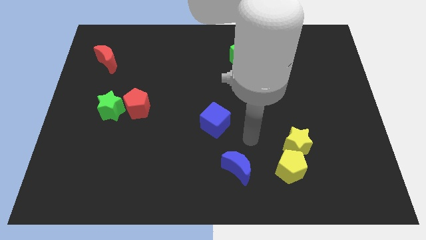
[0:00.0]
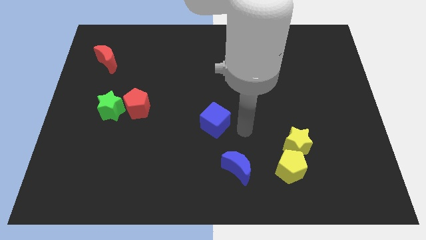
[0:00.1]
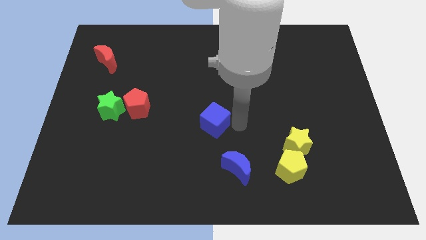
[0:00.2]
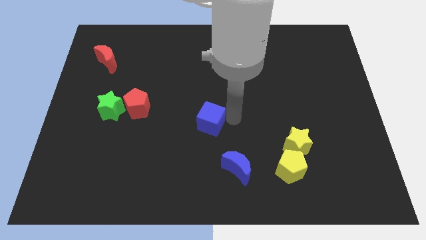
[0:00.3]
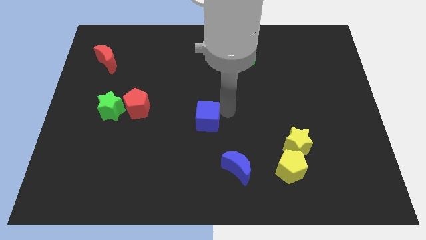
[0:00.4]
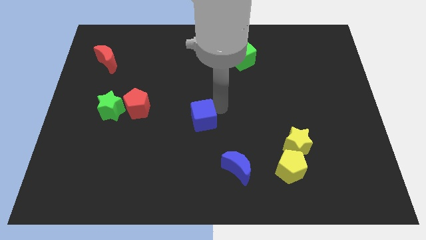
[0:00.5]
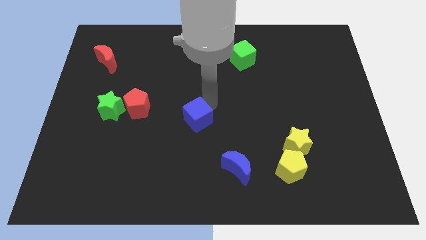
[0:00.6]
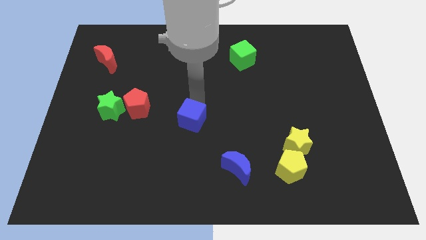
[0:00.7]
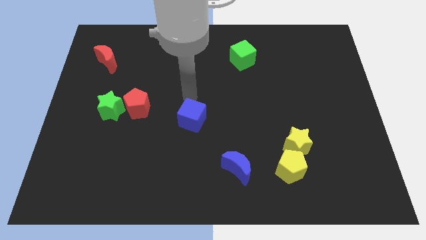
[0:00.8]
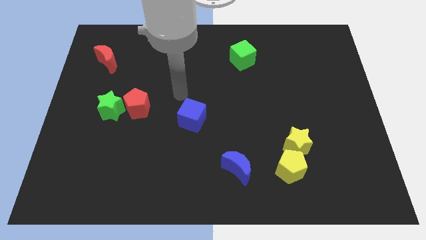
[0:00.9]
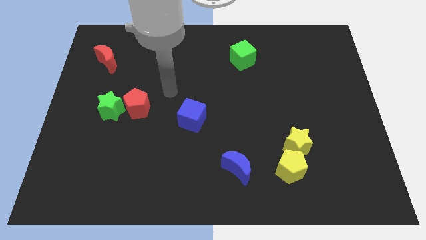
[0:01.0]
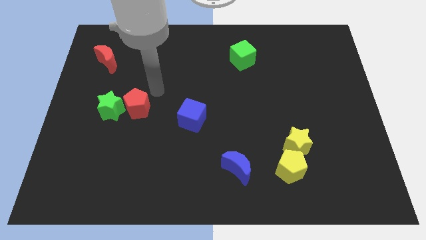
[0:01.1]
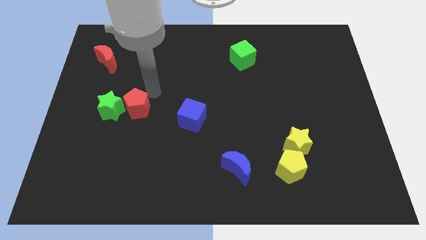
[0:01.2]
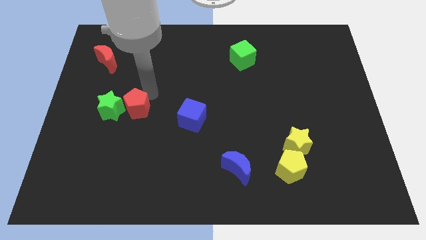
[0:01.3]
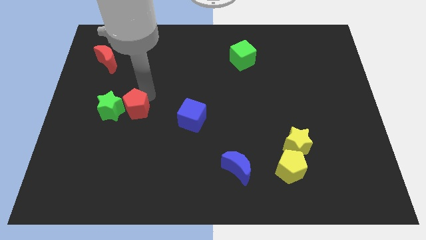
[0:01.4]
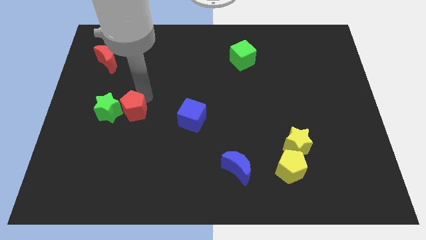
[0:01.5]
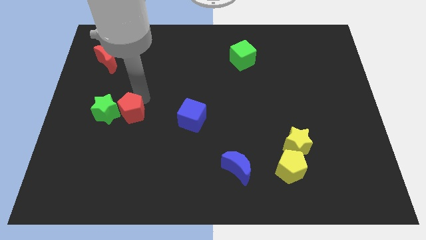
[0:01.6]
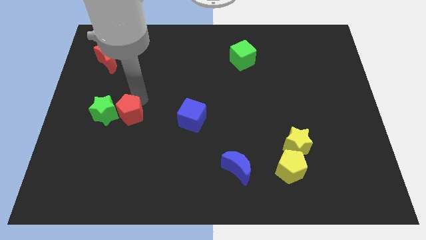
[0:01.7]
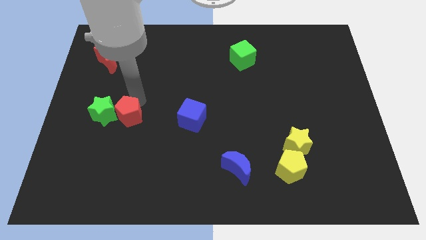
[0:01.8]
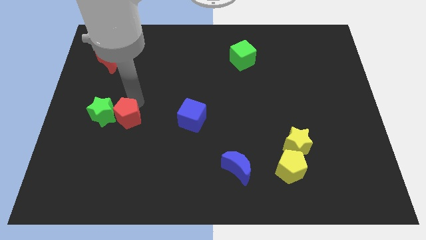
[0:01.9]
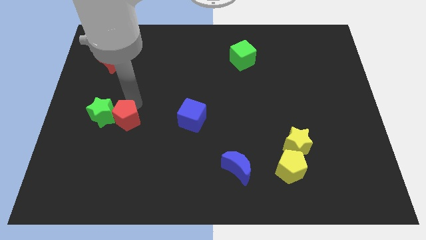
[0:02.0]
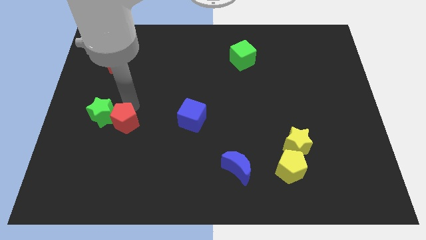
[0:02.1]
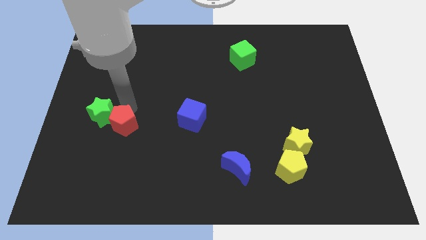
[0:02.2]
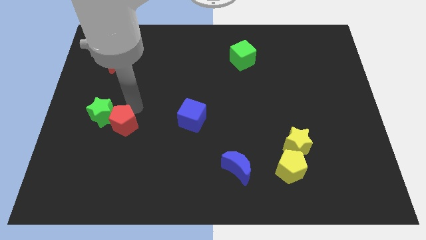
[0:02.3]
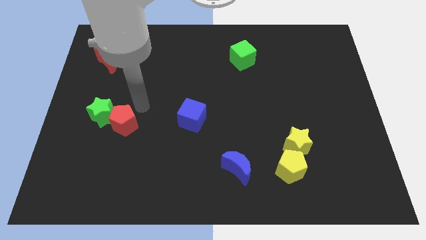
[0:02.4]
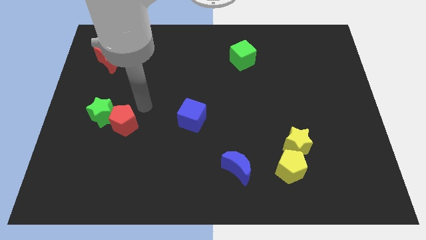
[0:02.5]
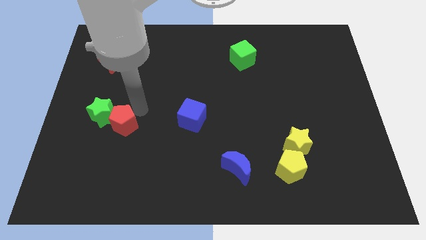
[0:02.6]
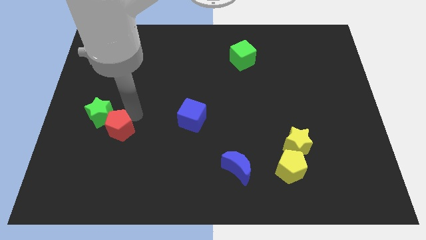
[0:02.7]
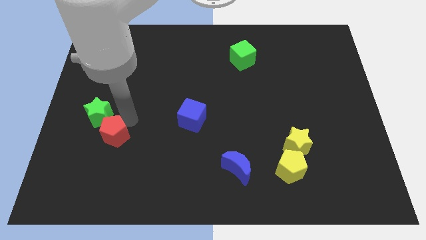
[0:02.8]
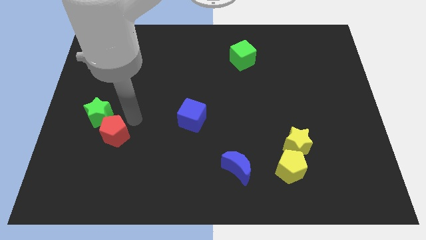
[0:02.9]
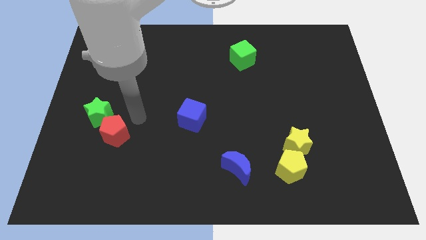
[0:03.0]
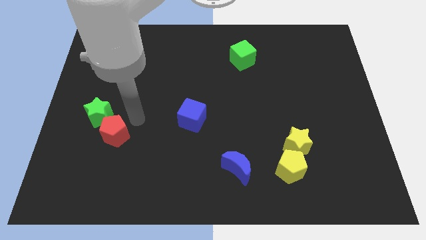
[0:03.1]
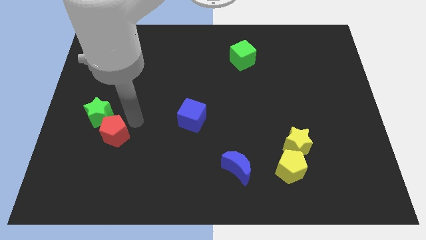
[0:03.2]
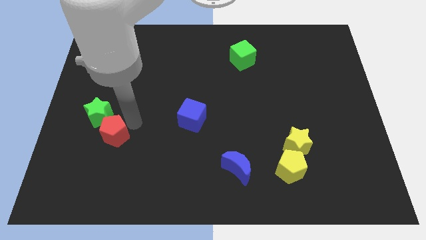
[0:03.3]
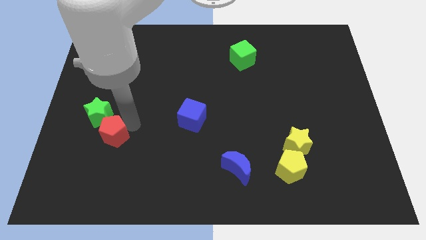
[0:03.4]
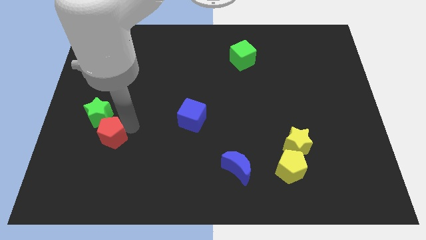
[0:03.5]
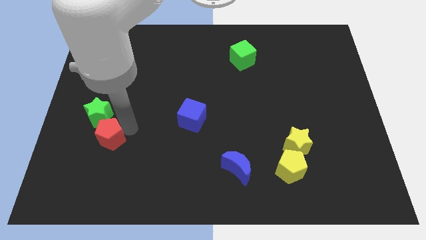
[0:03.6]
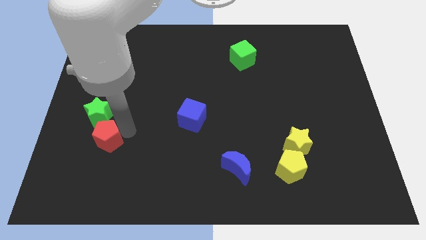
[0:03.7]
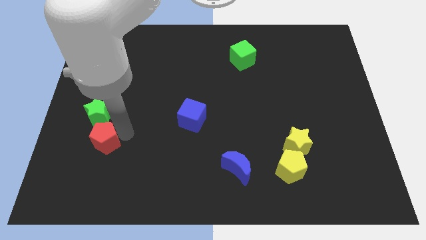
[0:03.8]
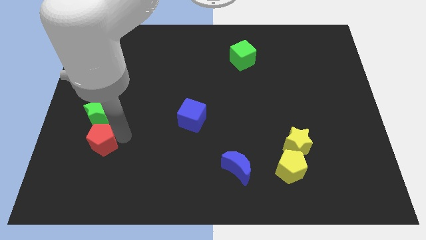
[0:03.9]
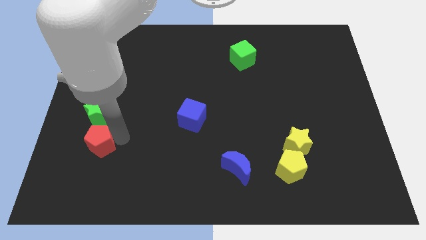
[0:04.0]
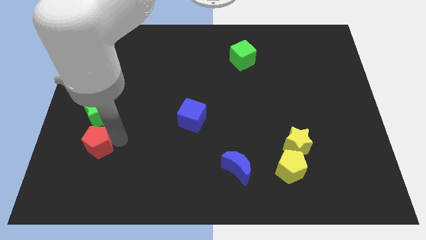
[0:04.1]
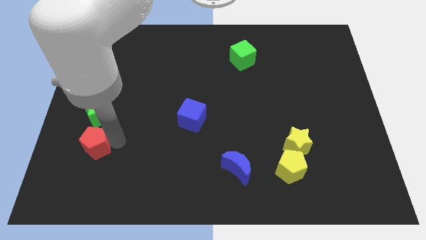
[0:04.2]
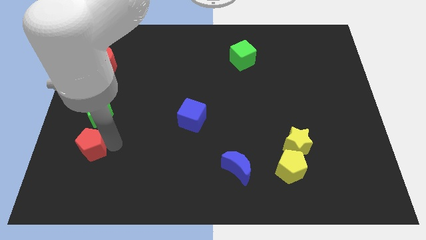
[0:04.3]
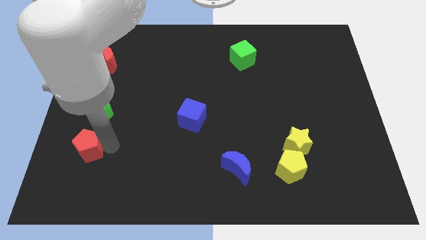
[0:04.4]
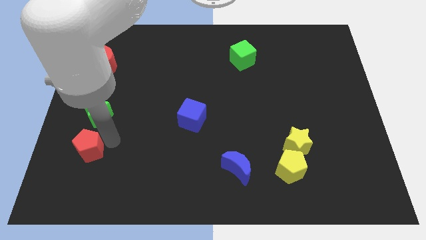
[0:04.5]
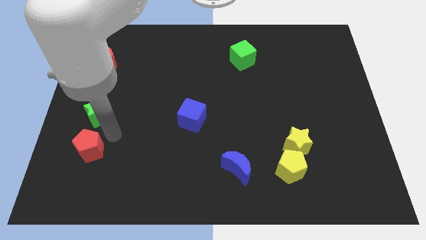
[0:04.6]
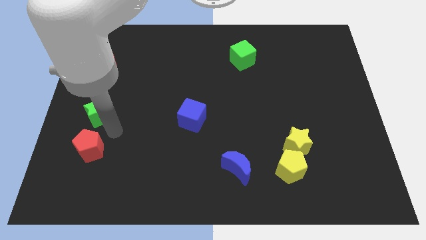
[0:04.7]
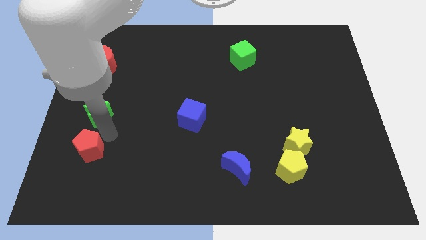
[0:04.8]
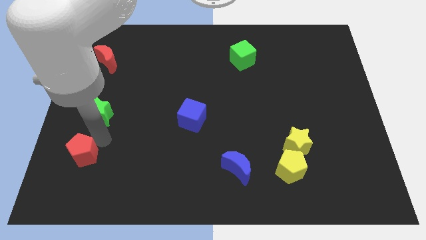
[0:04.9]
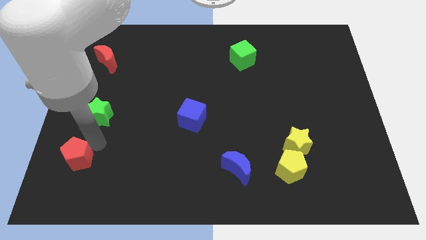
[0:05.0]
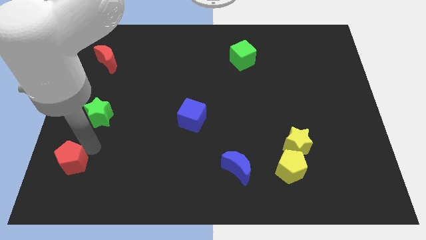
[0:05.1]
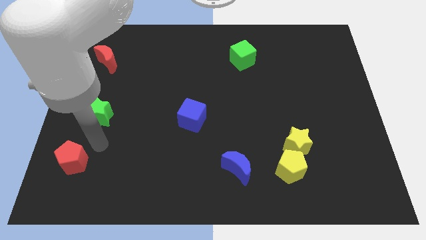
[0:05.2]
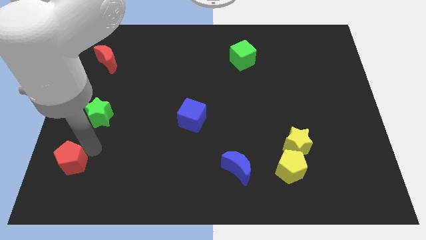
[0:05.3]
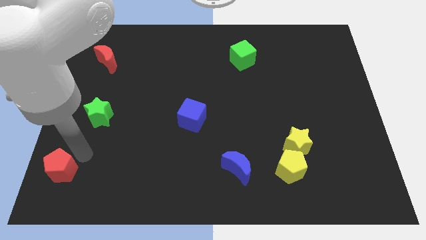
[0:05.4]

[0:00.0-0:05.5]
push the red pentagon to the lower left corner

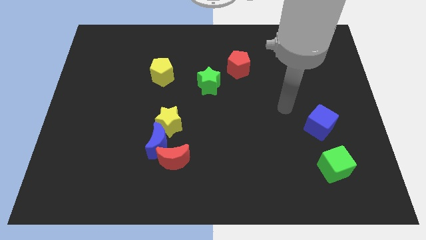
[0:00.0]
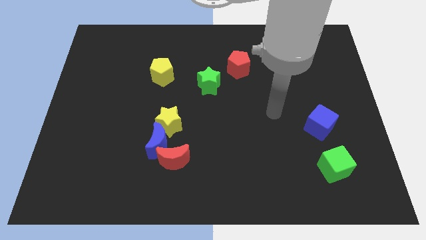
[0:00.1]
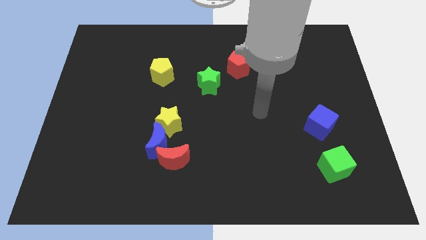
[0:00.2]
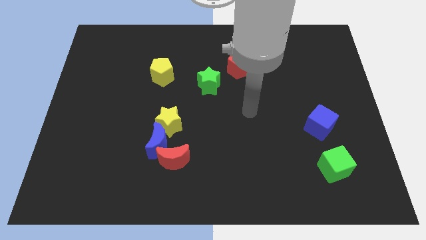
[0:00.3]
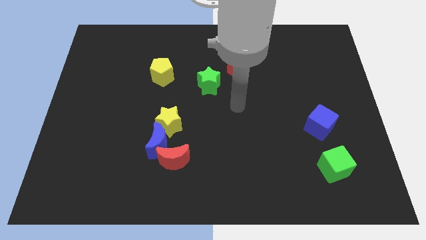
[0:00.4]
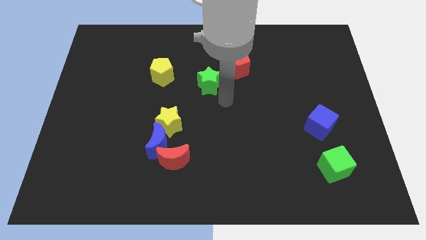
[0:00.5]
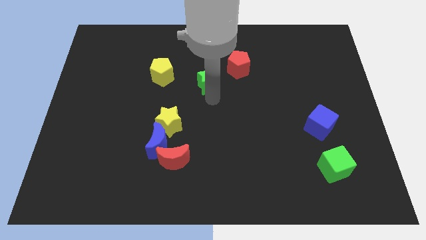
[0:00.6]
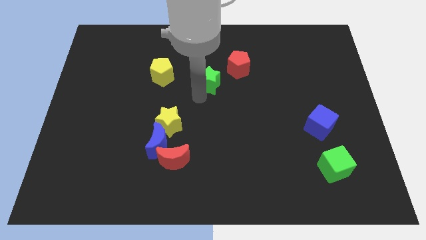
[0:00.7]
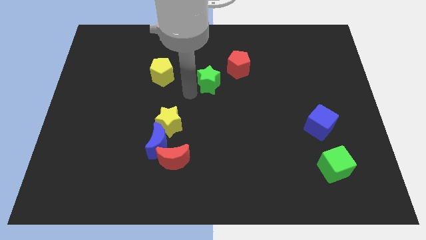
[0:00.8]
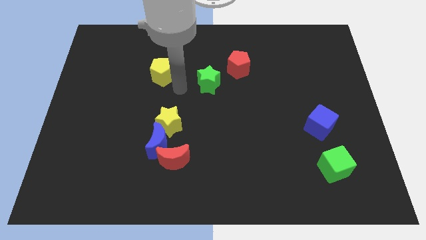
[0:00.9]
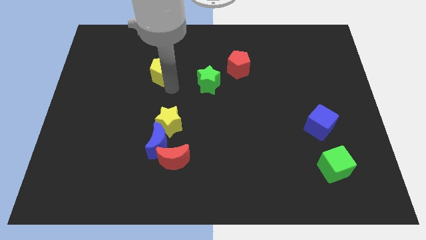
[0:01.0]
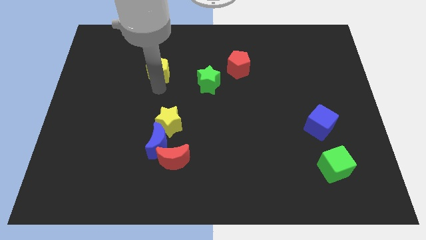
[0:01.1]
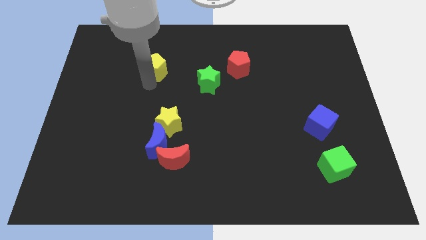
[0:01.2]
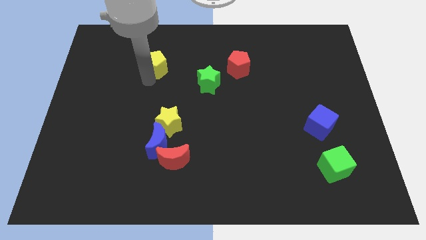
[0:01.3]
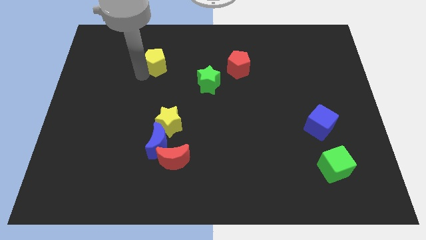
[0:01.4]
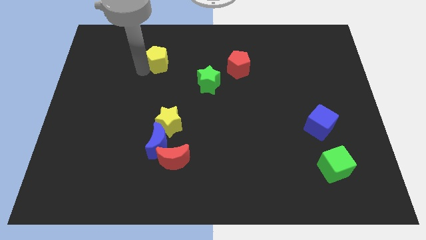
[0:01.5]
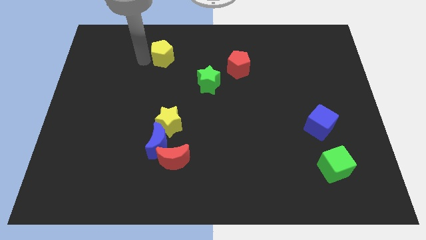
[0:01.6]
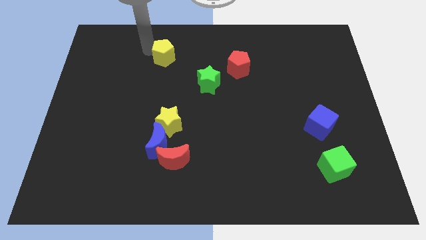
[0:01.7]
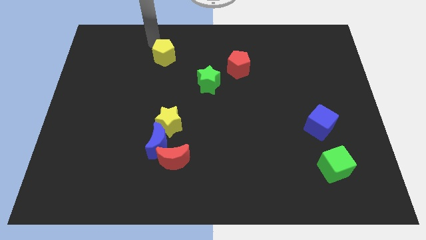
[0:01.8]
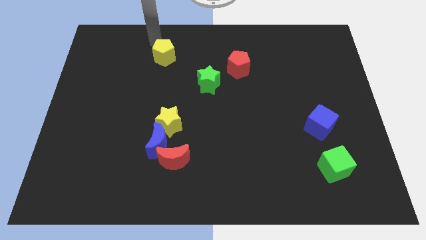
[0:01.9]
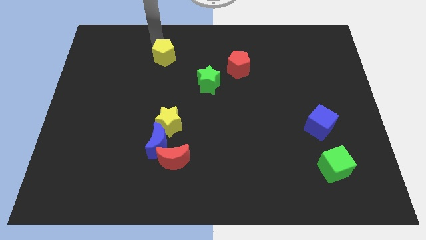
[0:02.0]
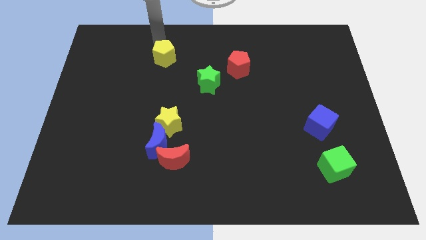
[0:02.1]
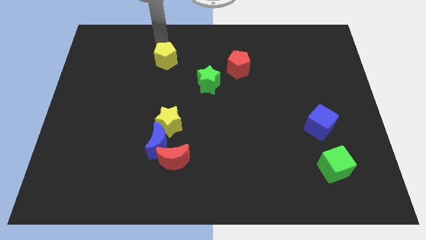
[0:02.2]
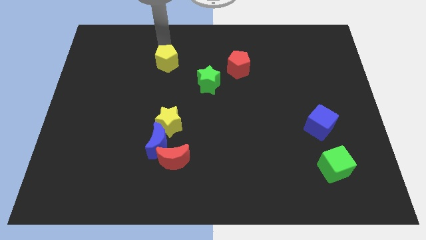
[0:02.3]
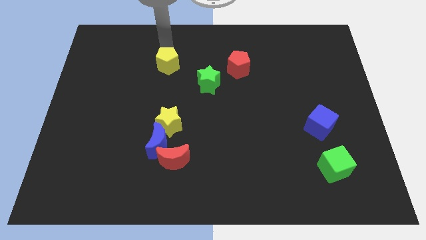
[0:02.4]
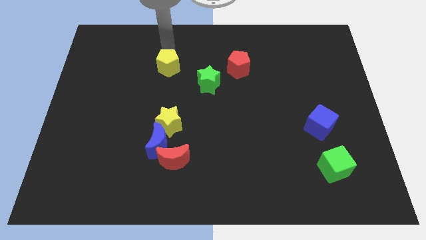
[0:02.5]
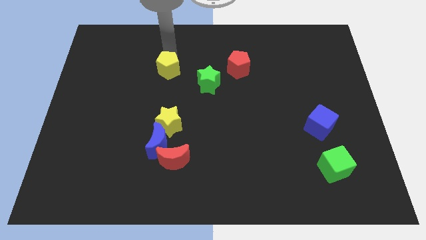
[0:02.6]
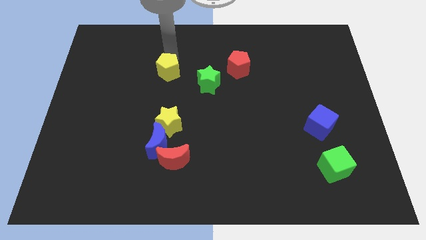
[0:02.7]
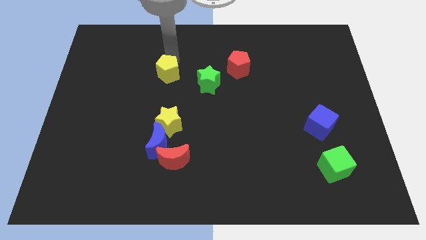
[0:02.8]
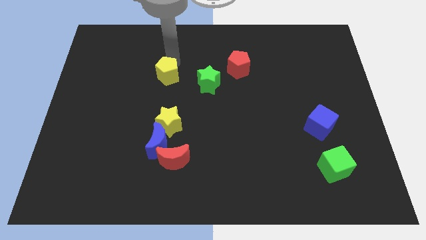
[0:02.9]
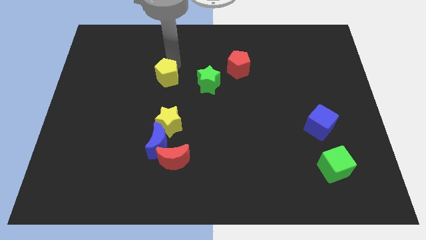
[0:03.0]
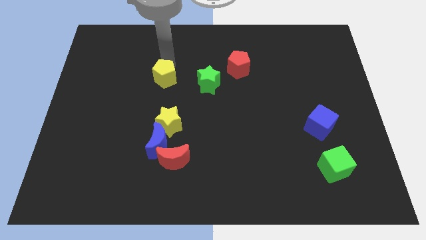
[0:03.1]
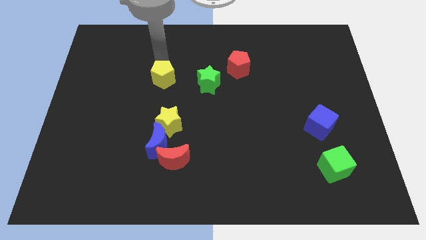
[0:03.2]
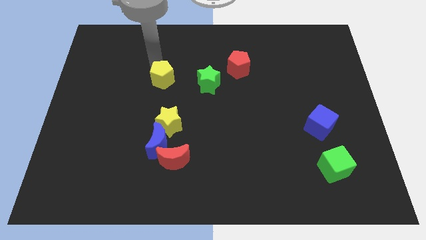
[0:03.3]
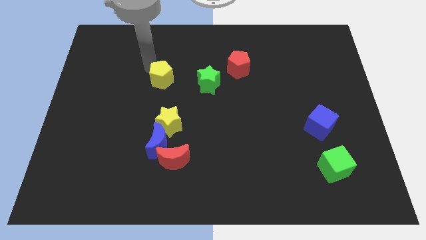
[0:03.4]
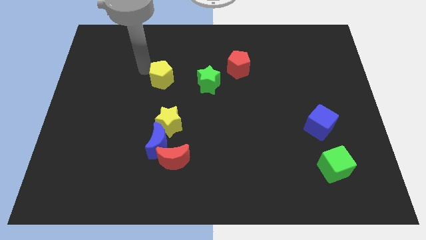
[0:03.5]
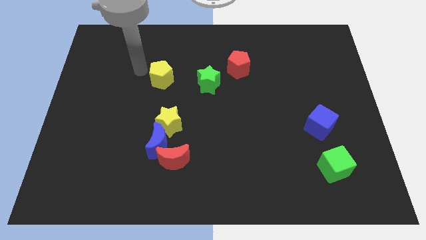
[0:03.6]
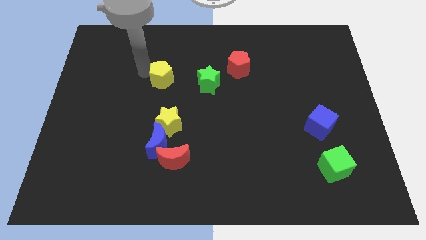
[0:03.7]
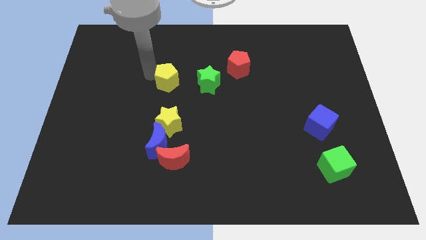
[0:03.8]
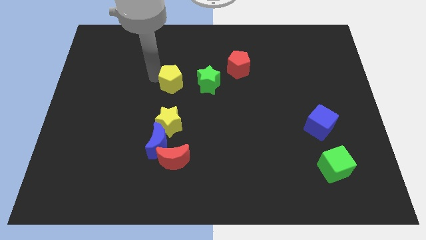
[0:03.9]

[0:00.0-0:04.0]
move the yellow pentagon to the middle
